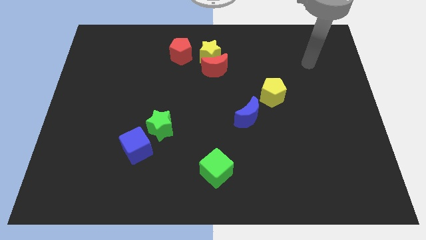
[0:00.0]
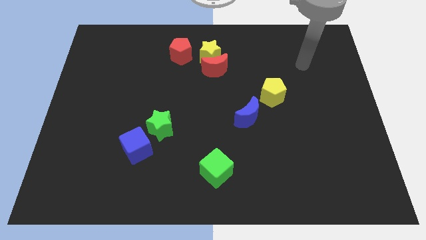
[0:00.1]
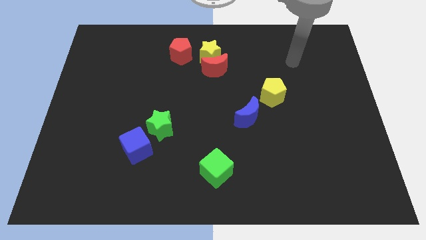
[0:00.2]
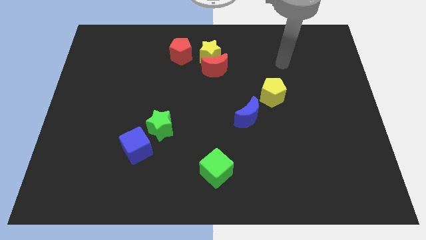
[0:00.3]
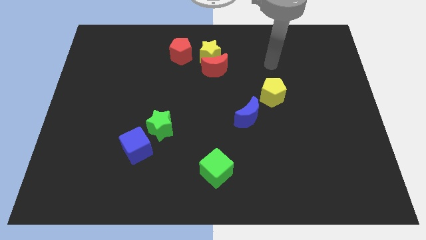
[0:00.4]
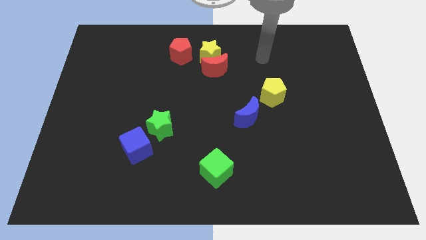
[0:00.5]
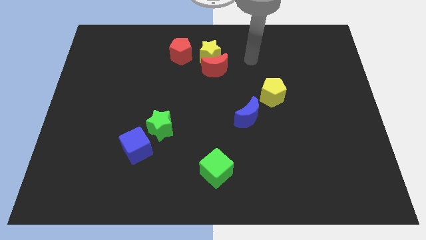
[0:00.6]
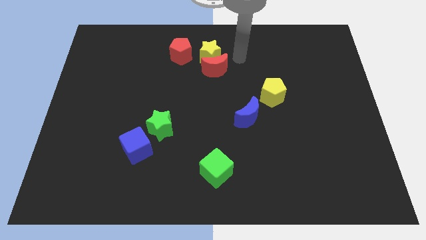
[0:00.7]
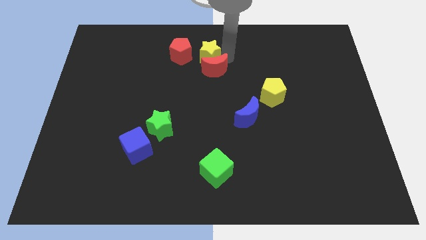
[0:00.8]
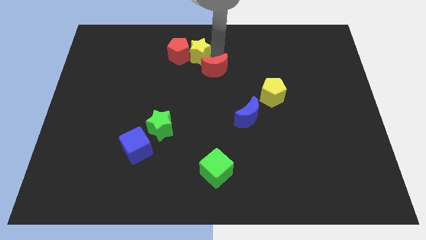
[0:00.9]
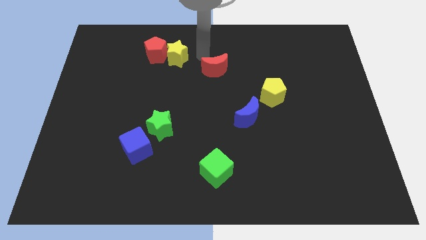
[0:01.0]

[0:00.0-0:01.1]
move the red moon away from the yellow star

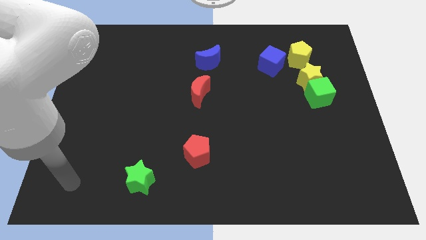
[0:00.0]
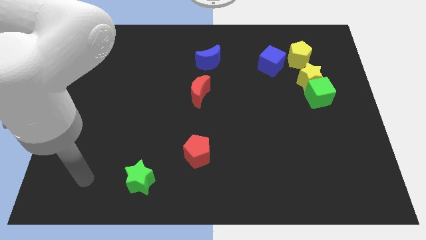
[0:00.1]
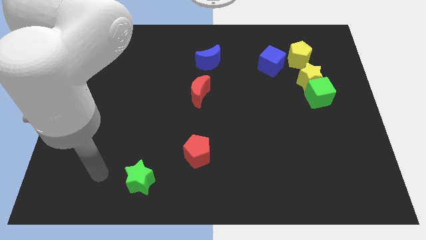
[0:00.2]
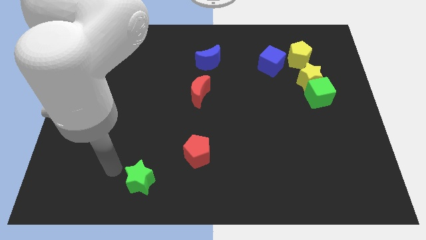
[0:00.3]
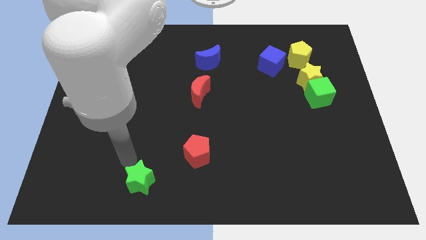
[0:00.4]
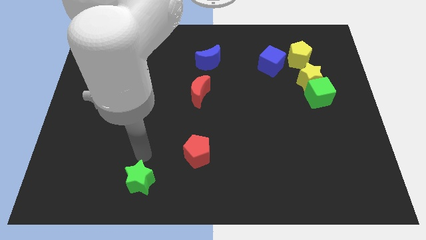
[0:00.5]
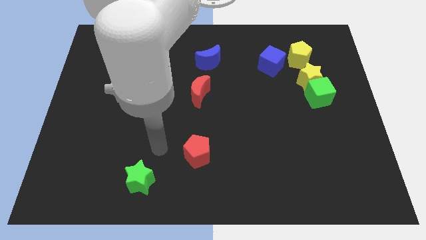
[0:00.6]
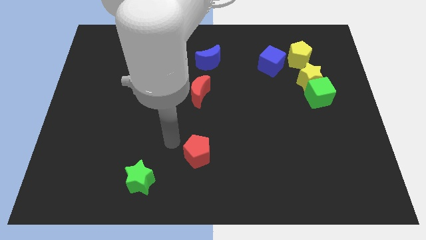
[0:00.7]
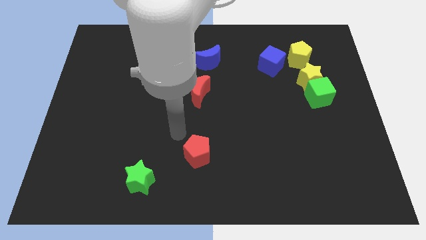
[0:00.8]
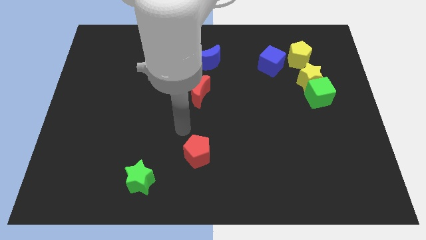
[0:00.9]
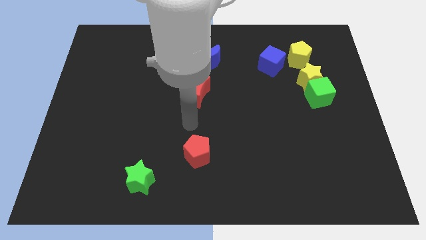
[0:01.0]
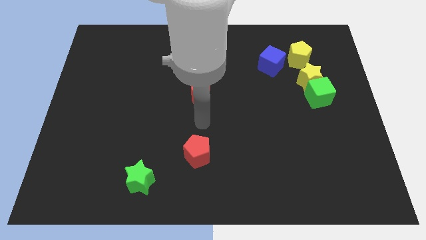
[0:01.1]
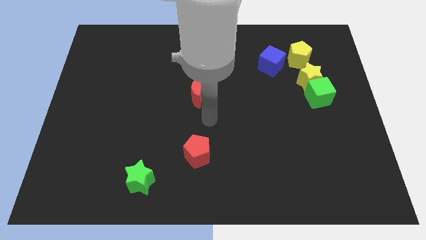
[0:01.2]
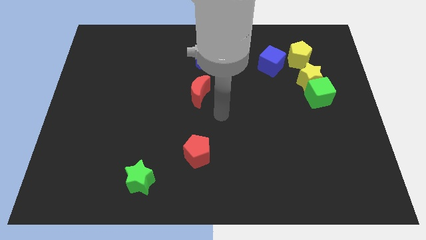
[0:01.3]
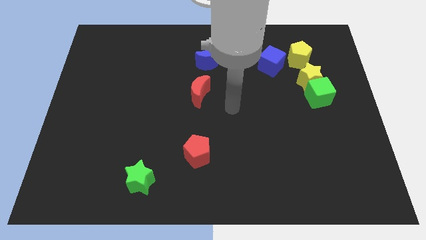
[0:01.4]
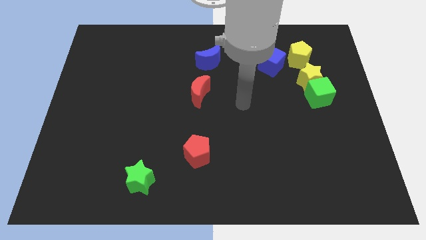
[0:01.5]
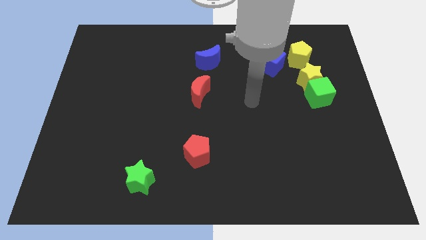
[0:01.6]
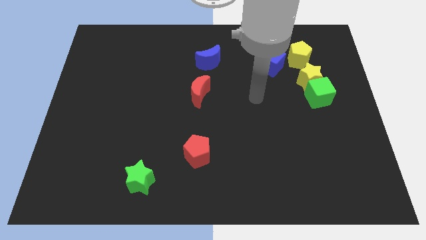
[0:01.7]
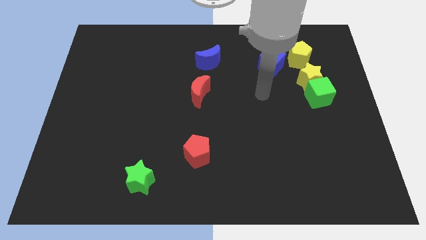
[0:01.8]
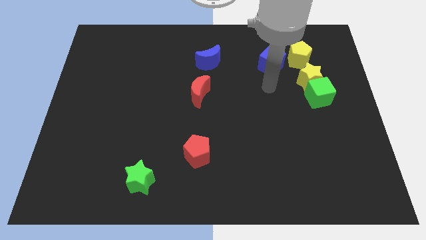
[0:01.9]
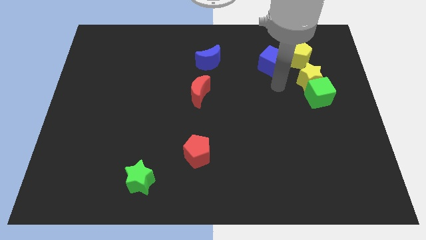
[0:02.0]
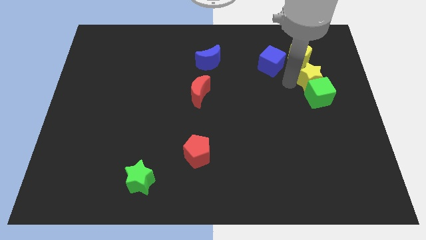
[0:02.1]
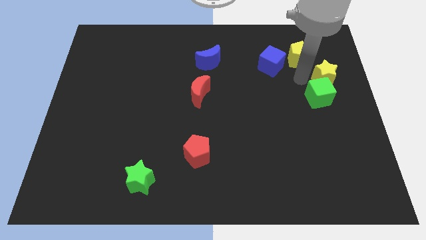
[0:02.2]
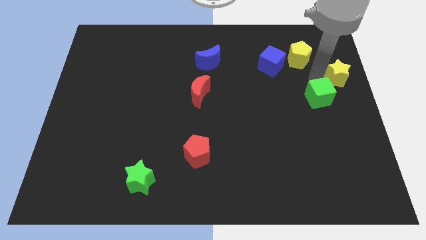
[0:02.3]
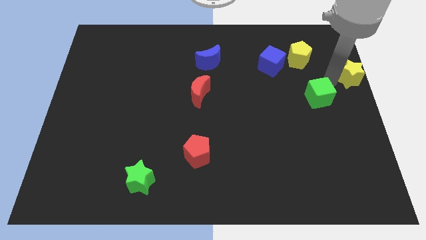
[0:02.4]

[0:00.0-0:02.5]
pull the green cube apart from the yellow star

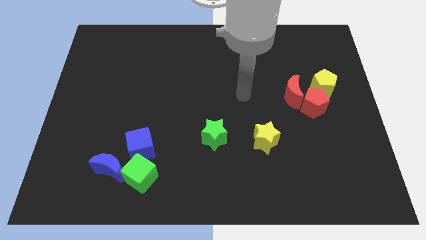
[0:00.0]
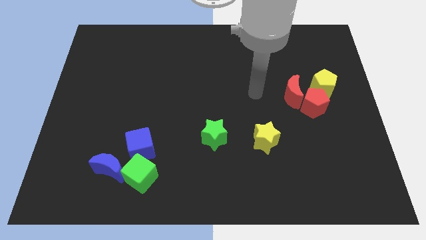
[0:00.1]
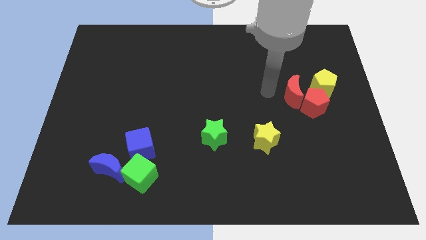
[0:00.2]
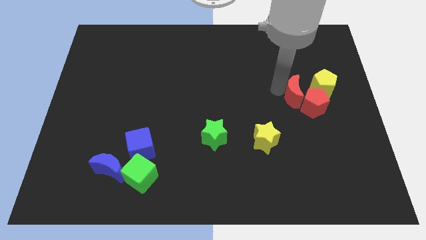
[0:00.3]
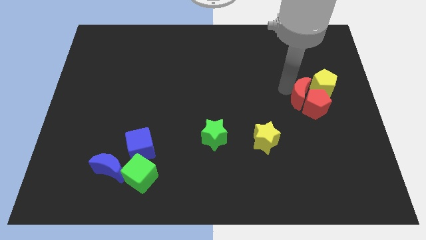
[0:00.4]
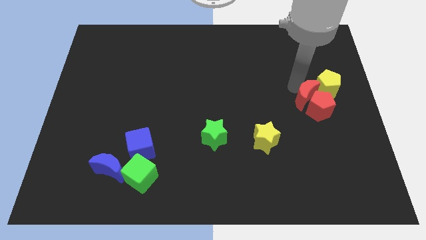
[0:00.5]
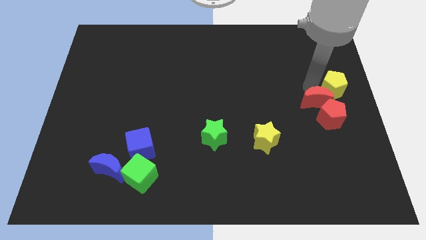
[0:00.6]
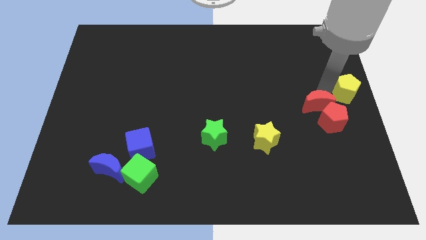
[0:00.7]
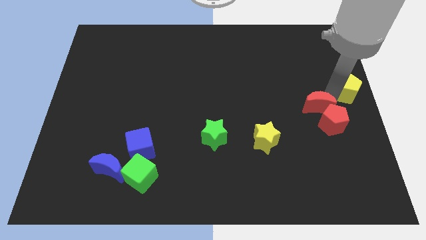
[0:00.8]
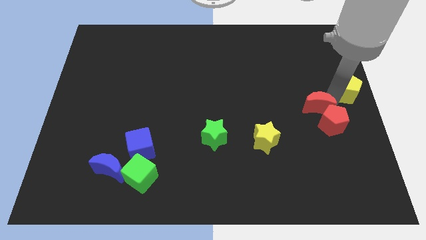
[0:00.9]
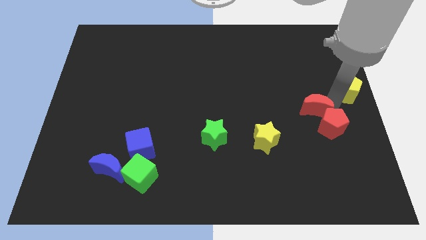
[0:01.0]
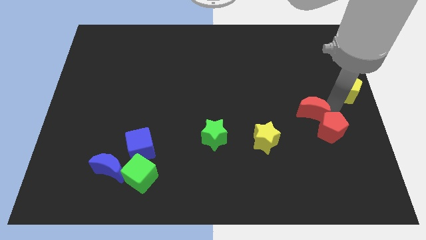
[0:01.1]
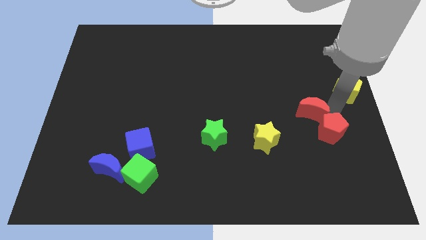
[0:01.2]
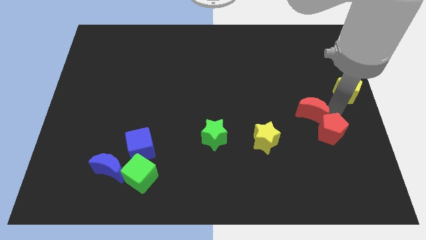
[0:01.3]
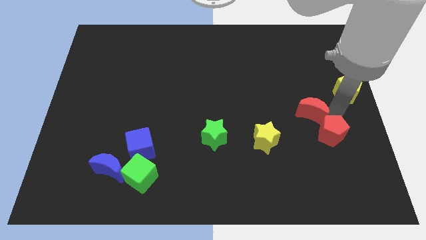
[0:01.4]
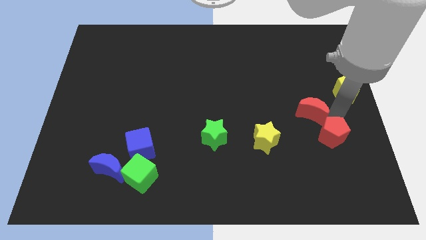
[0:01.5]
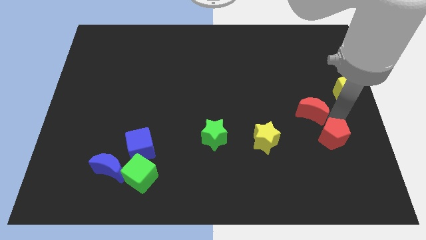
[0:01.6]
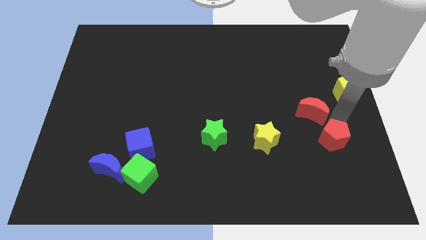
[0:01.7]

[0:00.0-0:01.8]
separate the red pentagon from the red moon and yellow pentagon

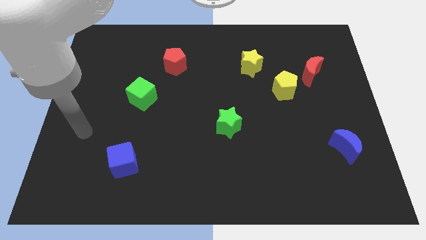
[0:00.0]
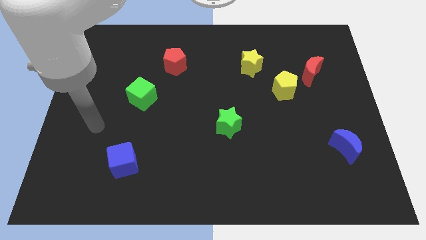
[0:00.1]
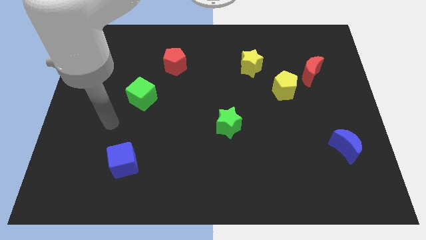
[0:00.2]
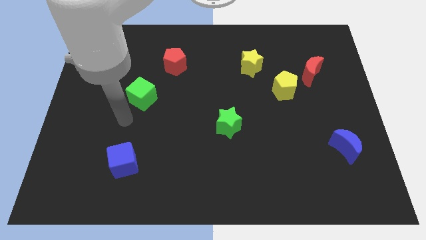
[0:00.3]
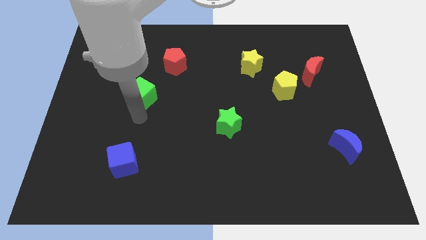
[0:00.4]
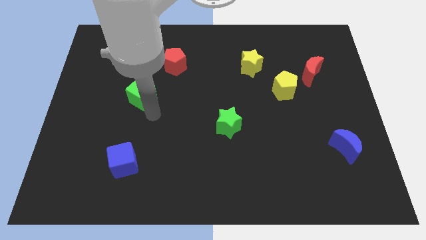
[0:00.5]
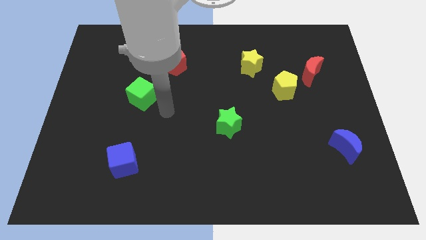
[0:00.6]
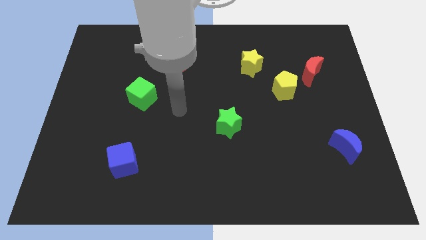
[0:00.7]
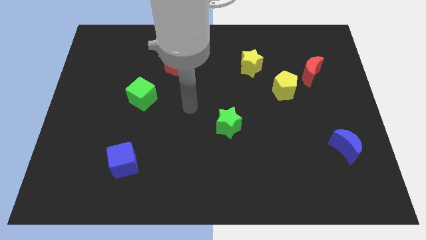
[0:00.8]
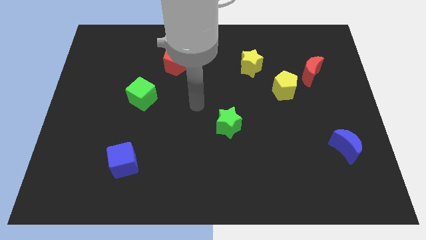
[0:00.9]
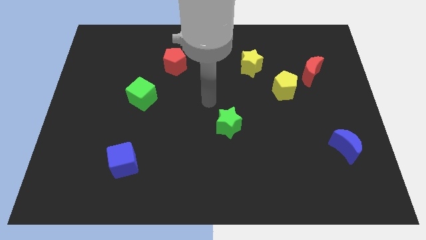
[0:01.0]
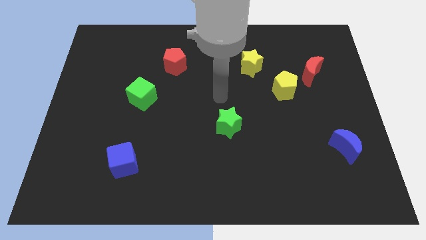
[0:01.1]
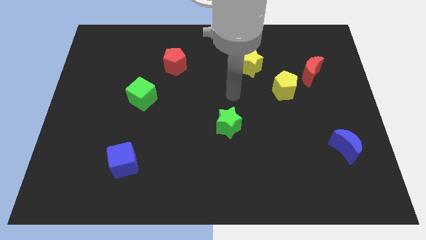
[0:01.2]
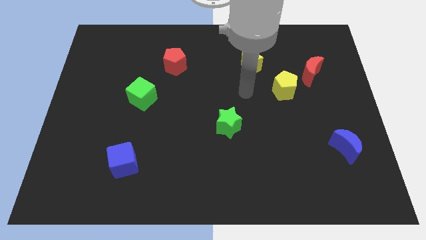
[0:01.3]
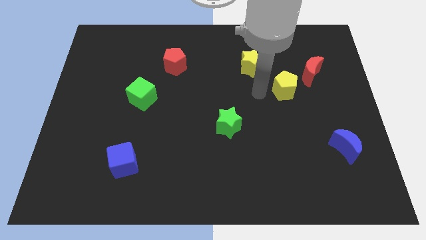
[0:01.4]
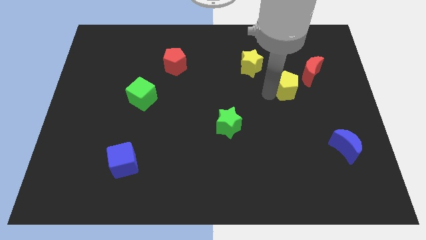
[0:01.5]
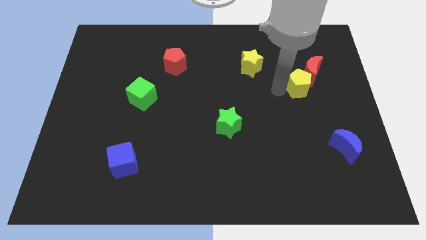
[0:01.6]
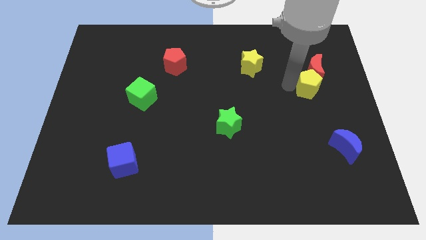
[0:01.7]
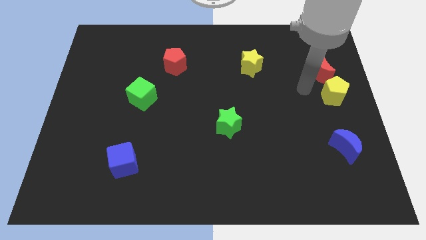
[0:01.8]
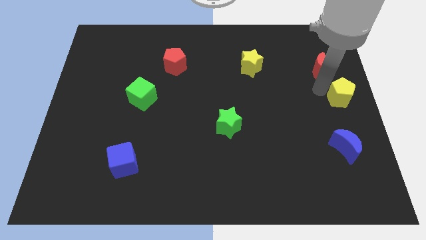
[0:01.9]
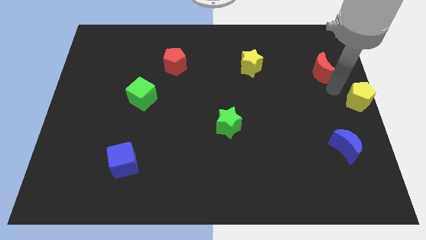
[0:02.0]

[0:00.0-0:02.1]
pull the red moon apart from the yellow pentagon

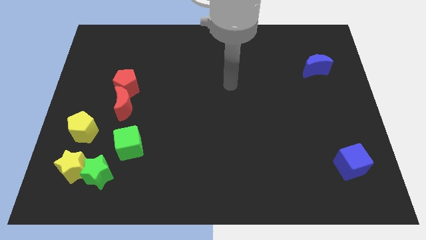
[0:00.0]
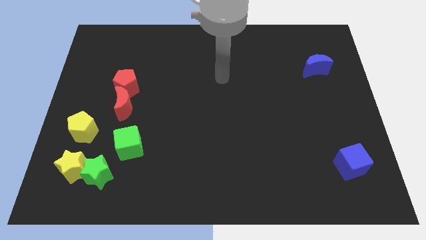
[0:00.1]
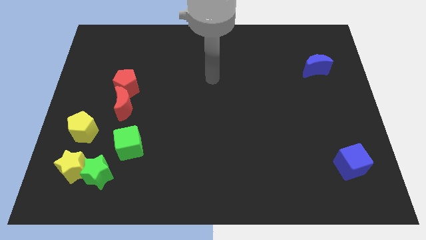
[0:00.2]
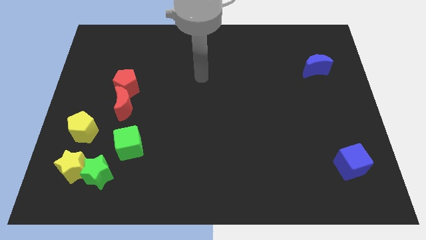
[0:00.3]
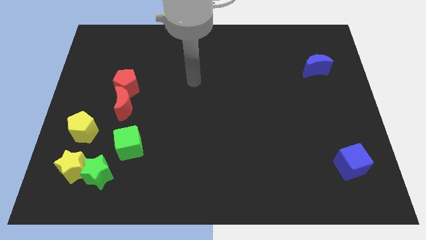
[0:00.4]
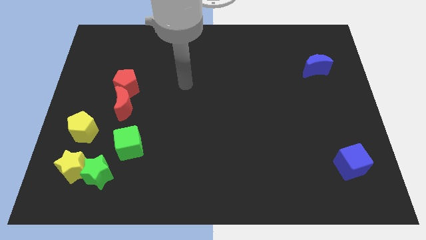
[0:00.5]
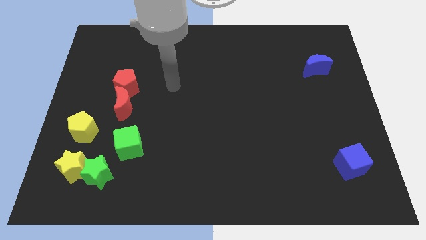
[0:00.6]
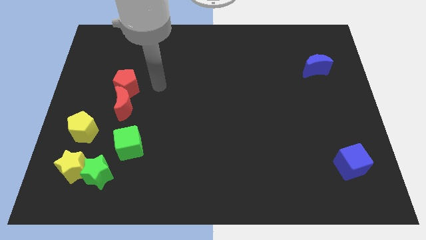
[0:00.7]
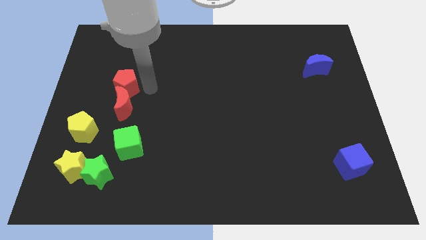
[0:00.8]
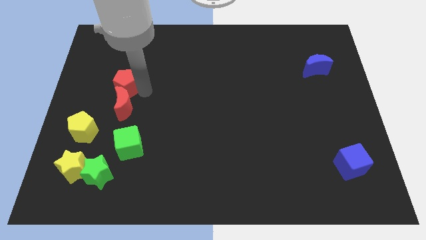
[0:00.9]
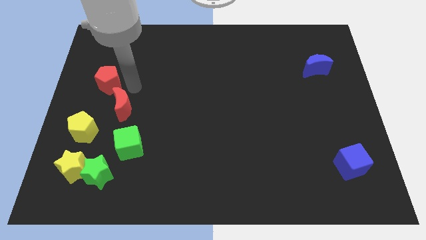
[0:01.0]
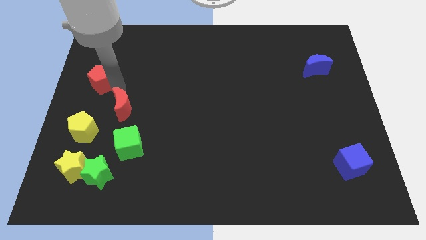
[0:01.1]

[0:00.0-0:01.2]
separate the red moon from the red pentagon

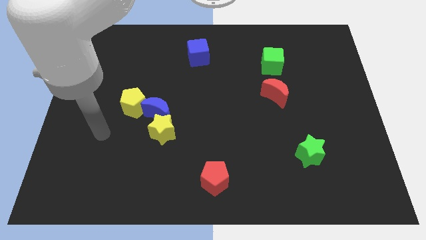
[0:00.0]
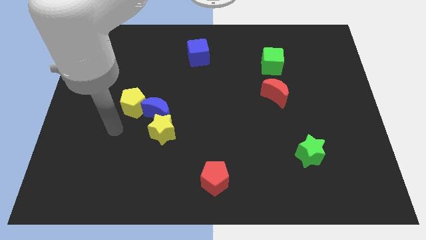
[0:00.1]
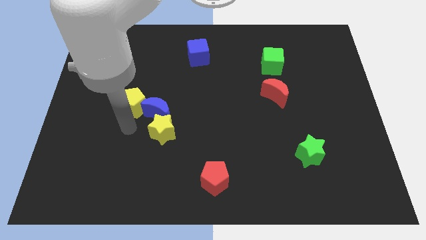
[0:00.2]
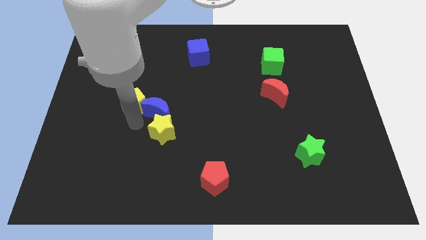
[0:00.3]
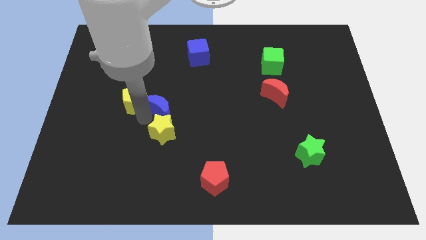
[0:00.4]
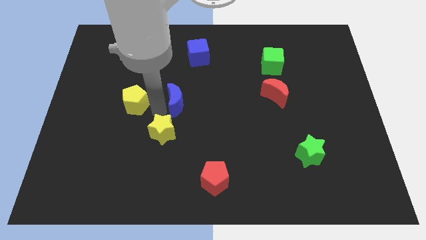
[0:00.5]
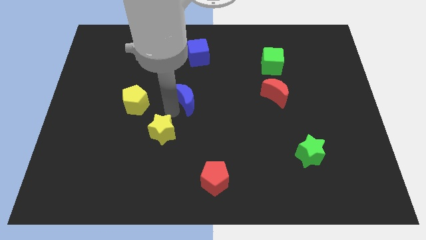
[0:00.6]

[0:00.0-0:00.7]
move the yellow star away from the blue moon
